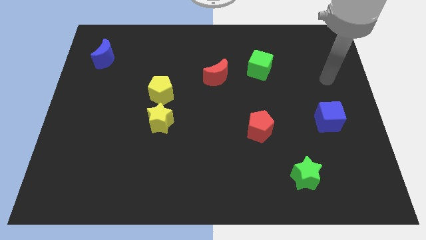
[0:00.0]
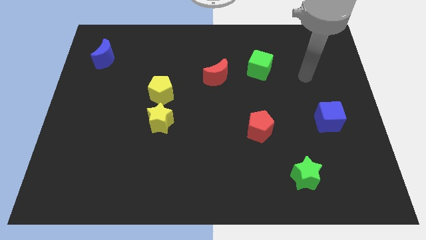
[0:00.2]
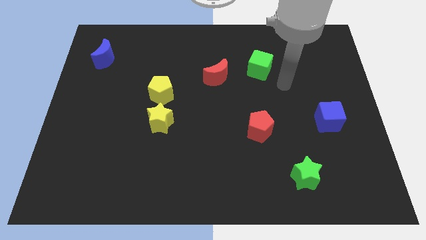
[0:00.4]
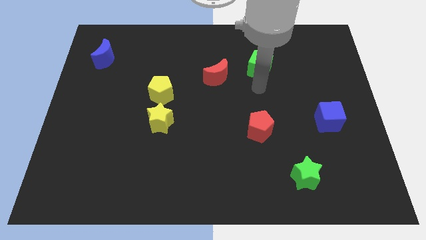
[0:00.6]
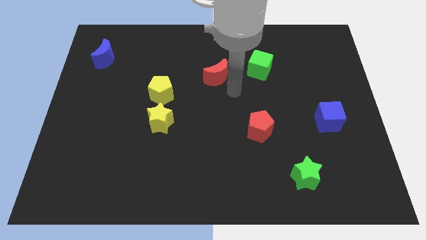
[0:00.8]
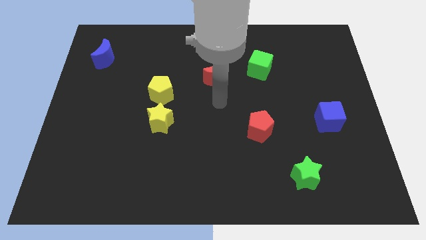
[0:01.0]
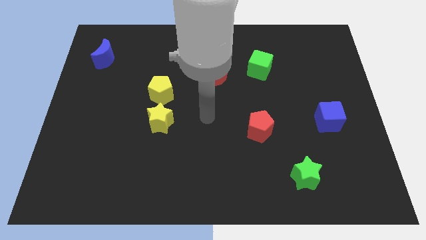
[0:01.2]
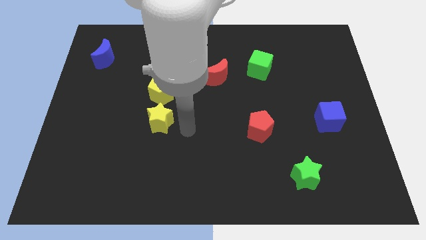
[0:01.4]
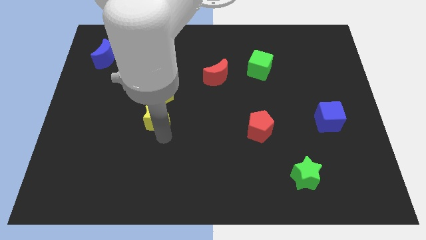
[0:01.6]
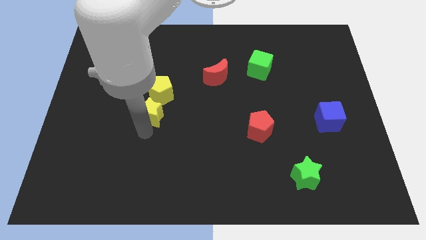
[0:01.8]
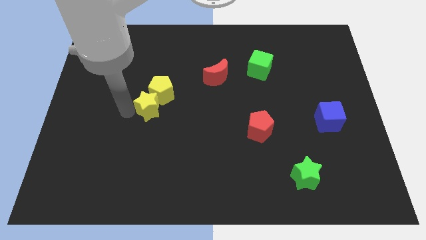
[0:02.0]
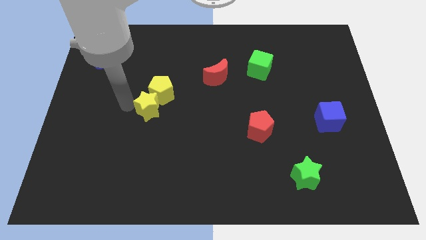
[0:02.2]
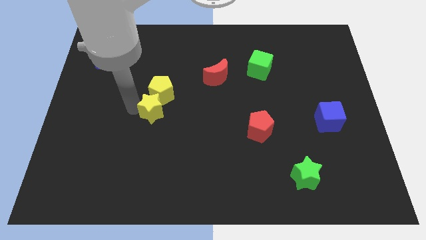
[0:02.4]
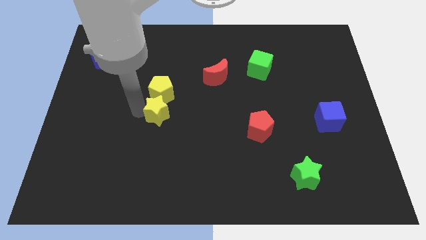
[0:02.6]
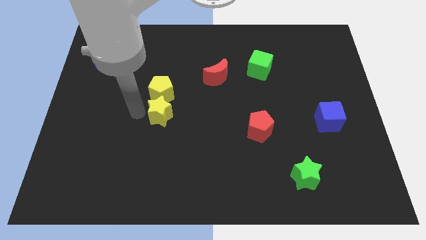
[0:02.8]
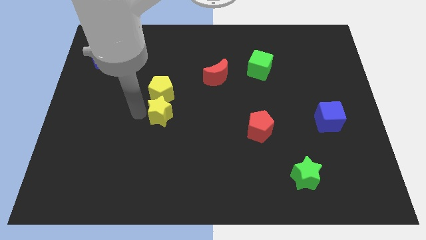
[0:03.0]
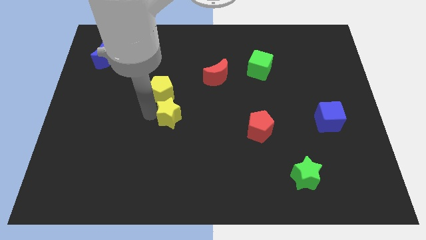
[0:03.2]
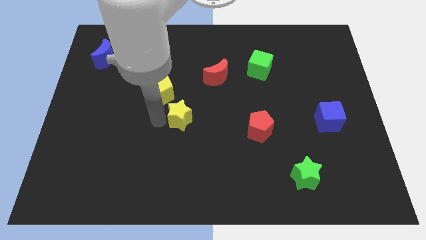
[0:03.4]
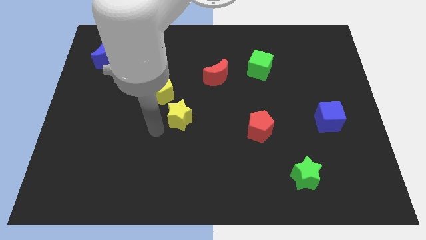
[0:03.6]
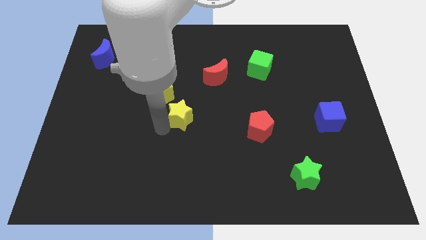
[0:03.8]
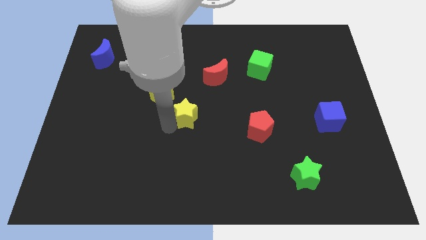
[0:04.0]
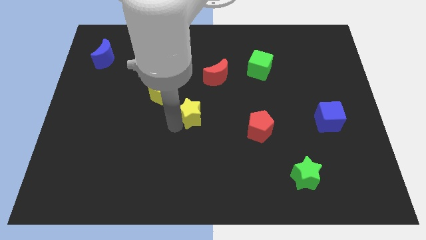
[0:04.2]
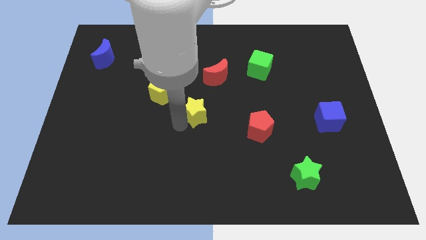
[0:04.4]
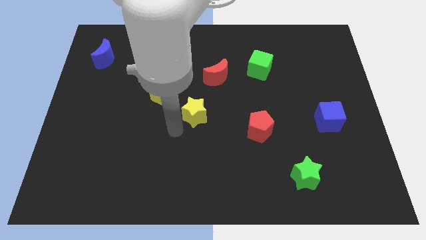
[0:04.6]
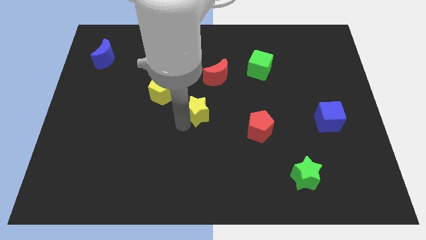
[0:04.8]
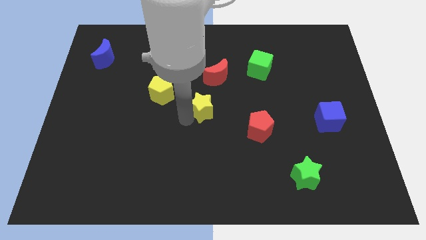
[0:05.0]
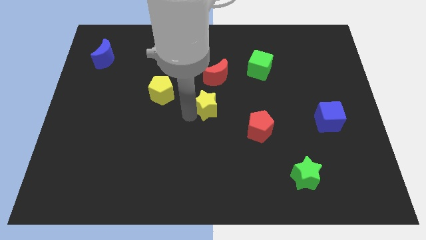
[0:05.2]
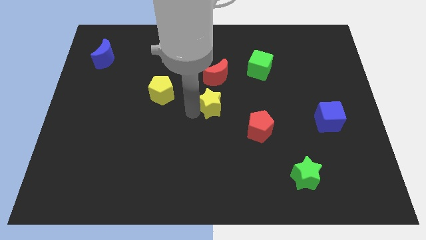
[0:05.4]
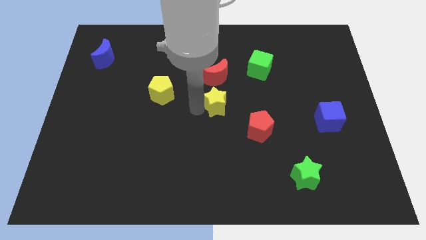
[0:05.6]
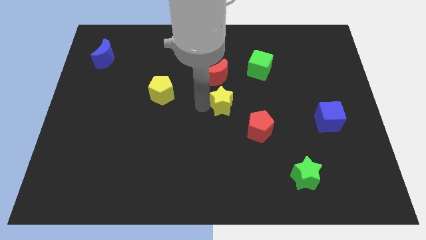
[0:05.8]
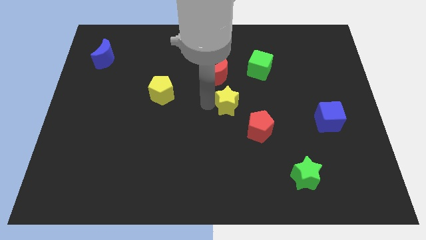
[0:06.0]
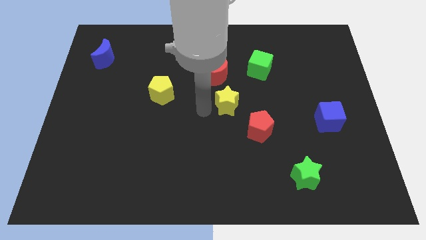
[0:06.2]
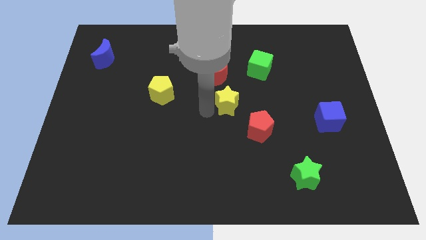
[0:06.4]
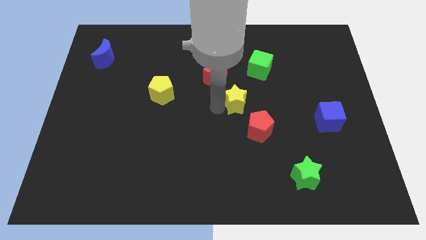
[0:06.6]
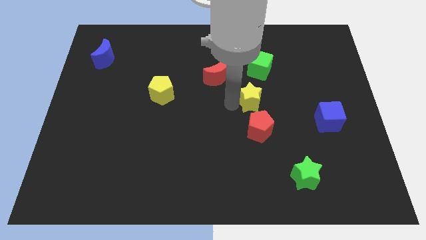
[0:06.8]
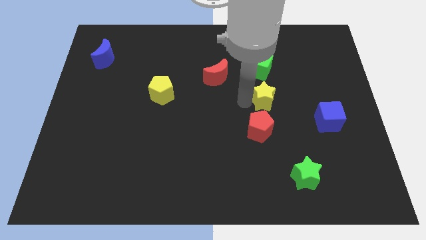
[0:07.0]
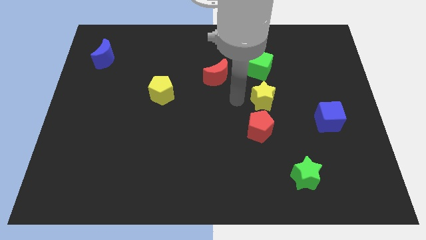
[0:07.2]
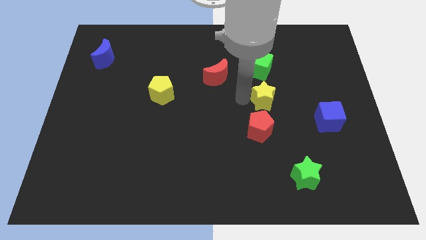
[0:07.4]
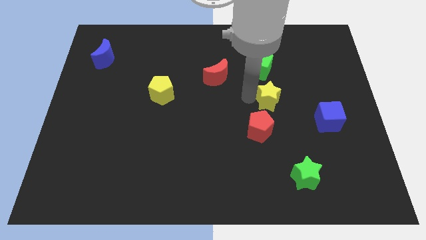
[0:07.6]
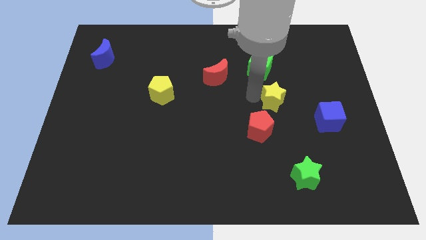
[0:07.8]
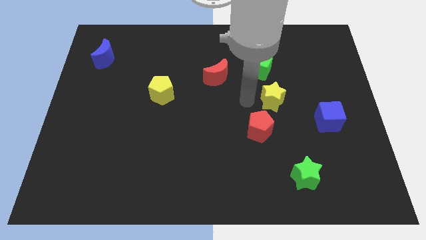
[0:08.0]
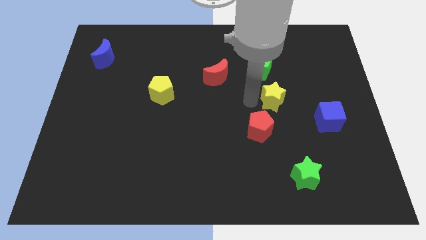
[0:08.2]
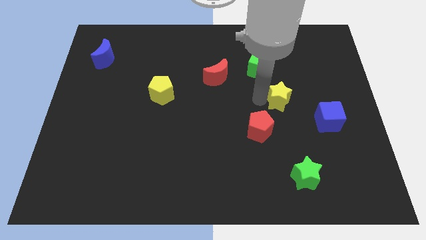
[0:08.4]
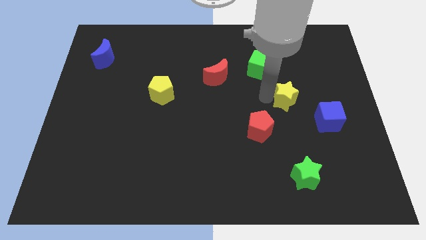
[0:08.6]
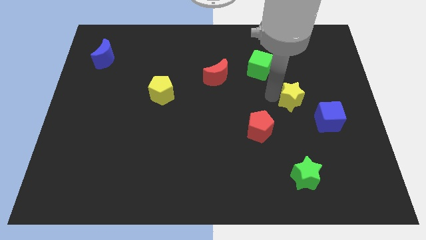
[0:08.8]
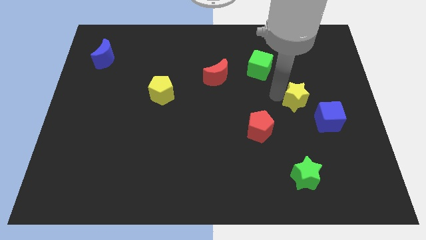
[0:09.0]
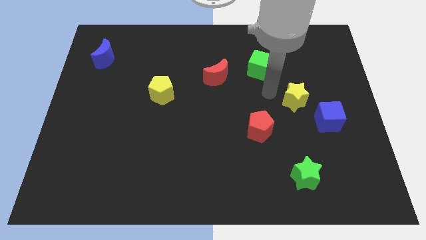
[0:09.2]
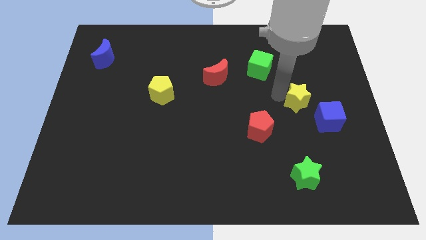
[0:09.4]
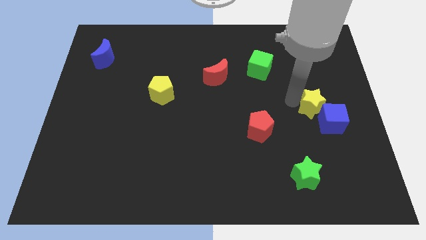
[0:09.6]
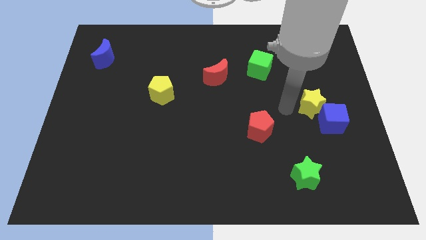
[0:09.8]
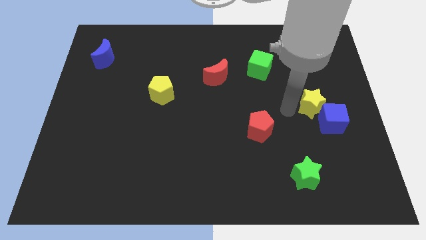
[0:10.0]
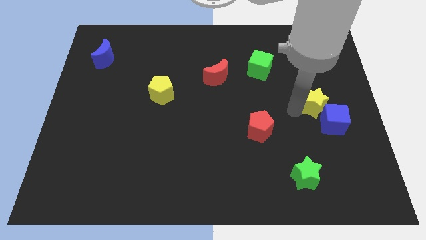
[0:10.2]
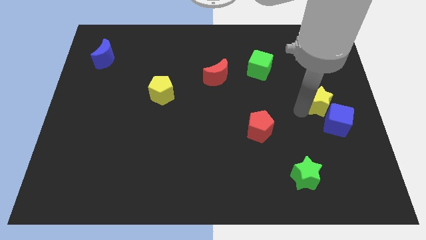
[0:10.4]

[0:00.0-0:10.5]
push the yellow star to the right side of the board

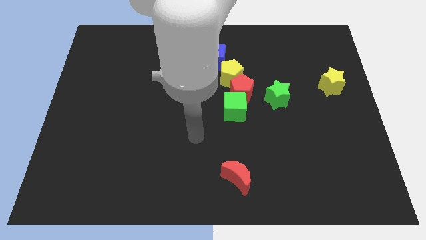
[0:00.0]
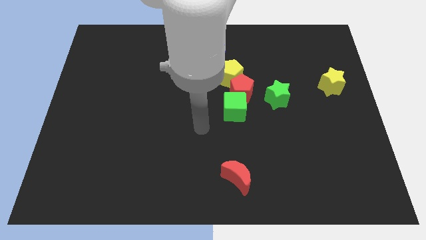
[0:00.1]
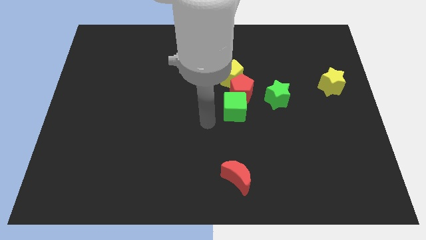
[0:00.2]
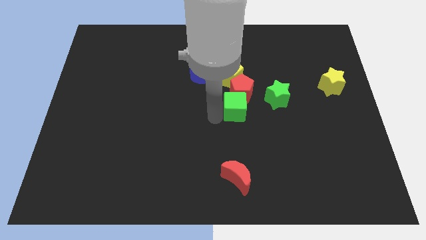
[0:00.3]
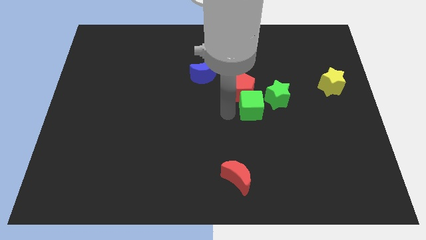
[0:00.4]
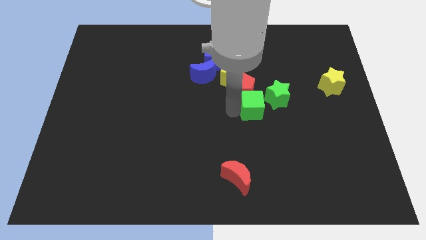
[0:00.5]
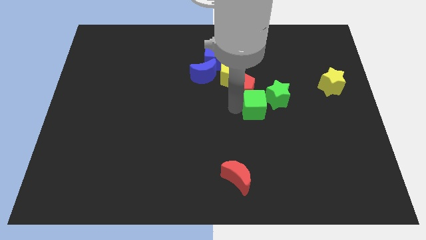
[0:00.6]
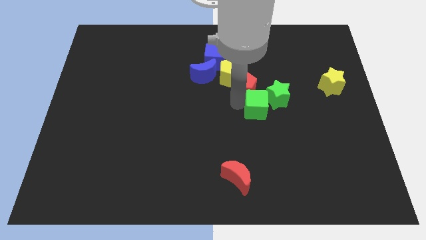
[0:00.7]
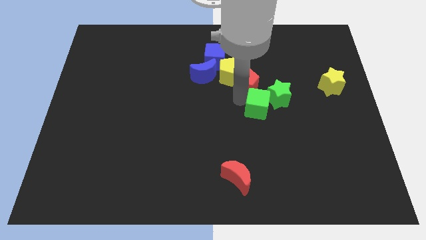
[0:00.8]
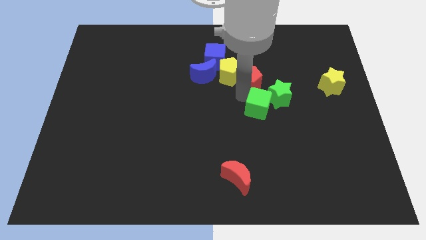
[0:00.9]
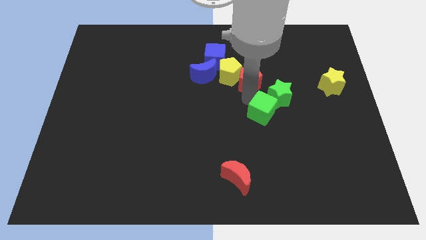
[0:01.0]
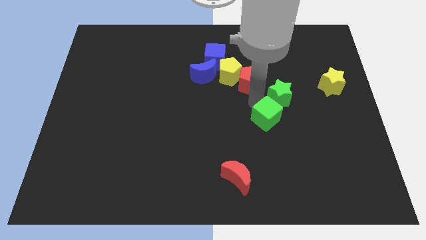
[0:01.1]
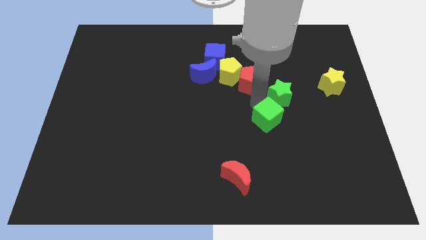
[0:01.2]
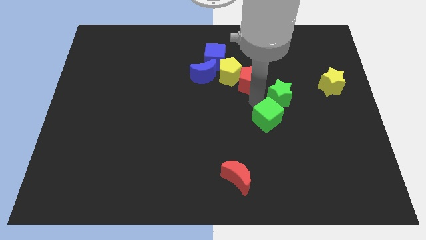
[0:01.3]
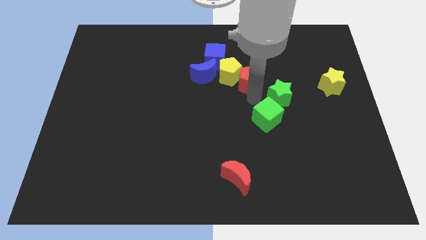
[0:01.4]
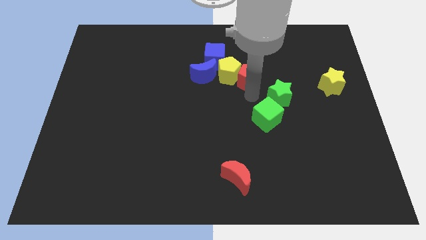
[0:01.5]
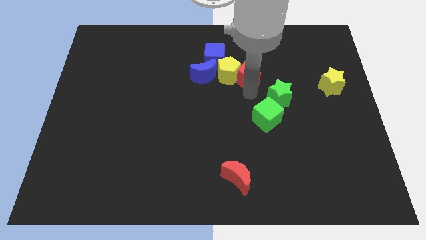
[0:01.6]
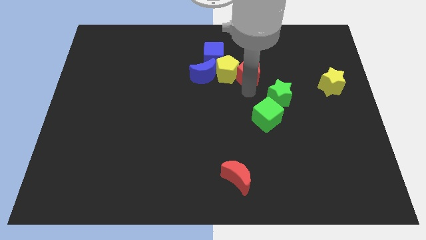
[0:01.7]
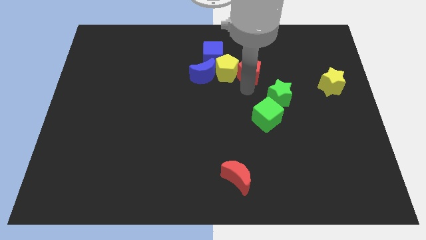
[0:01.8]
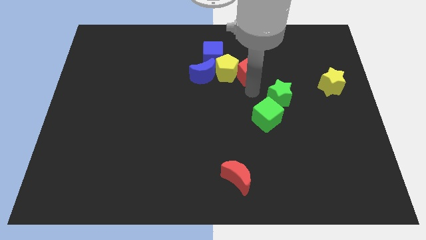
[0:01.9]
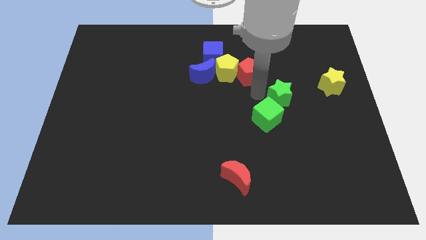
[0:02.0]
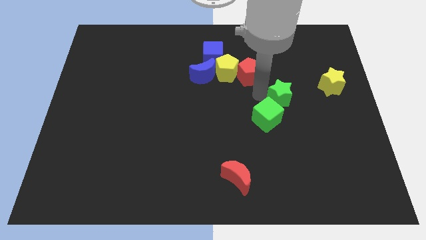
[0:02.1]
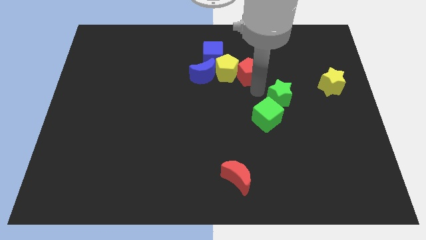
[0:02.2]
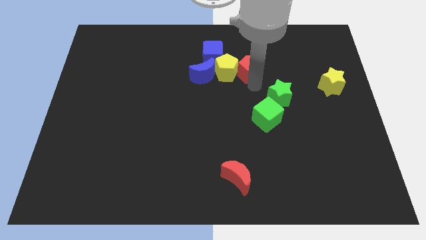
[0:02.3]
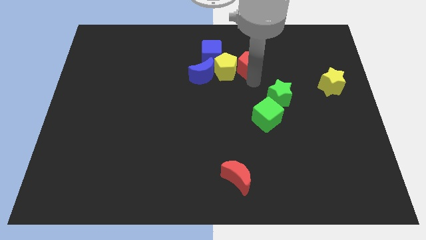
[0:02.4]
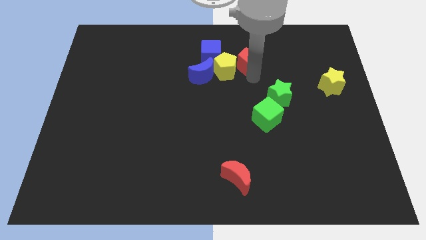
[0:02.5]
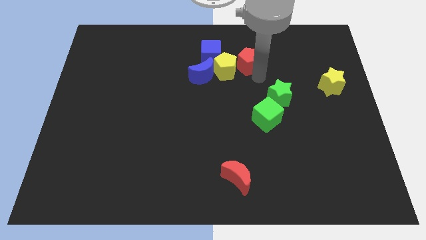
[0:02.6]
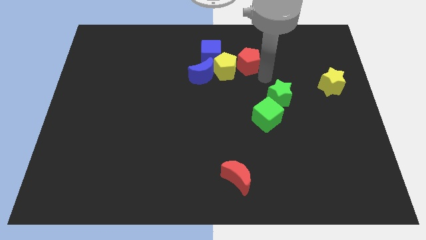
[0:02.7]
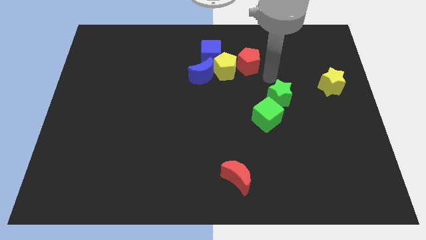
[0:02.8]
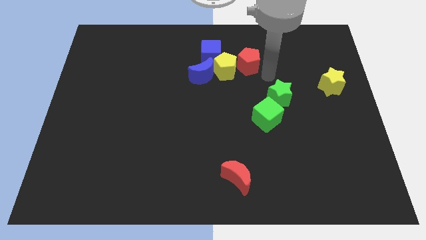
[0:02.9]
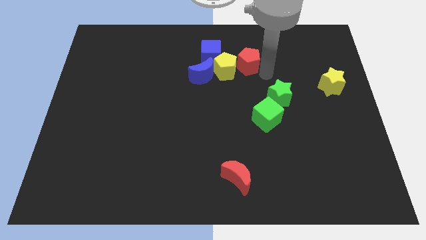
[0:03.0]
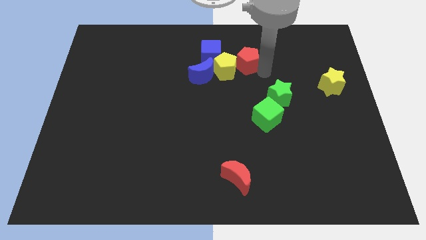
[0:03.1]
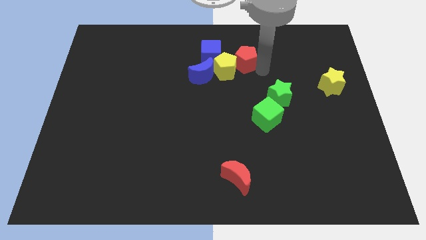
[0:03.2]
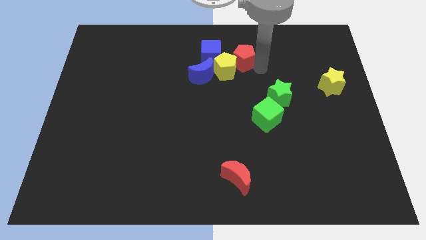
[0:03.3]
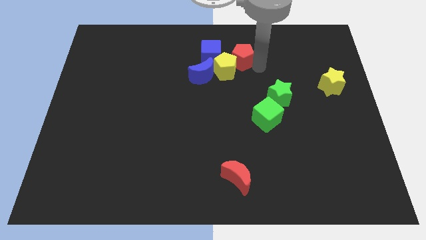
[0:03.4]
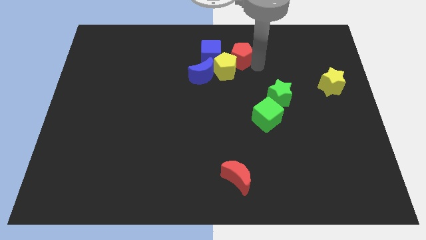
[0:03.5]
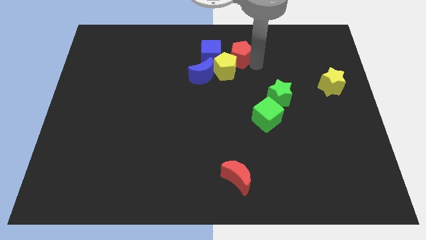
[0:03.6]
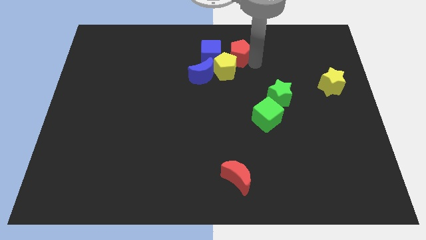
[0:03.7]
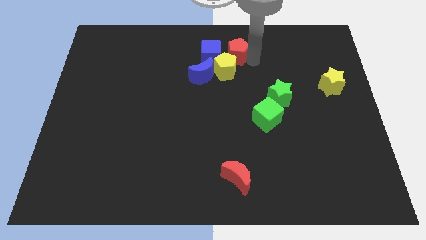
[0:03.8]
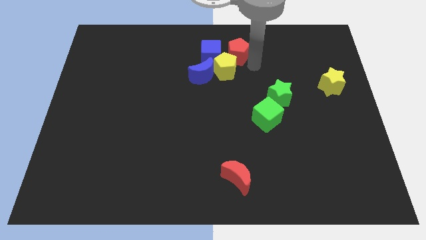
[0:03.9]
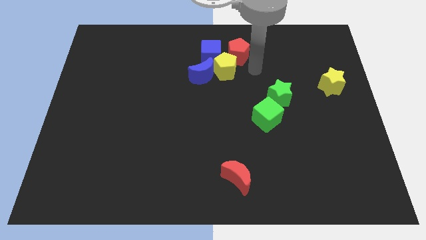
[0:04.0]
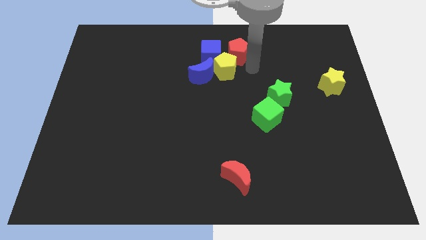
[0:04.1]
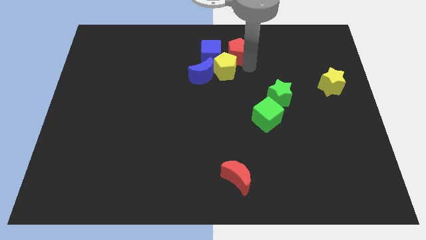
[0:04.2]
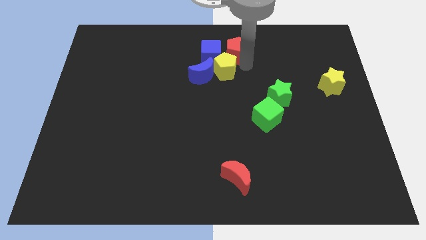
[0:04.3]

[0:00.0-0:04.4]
push the red pentagon to the top
